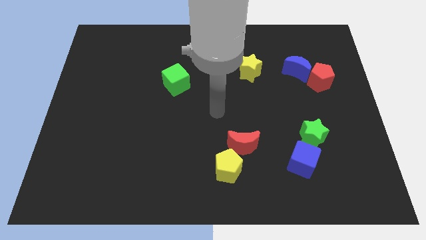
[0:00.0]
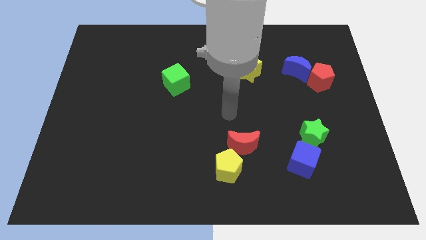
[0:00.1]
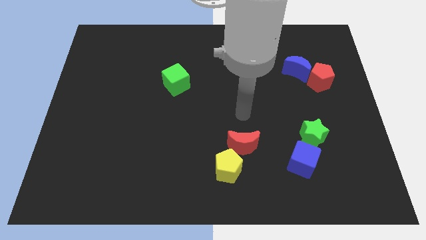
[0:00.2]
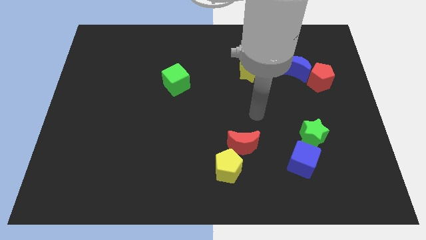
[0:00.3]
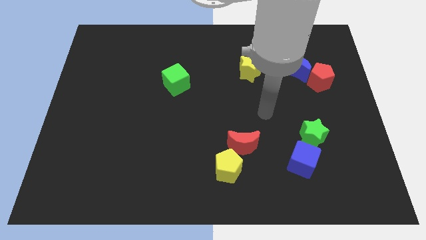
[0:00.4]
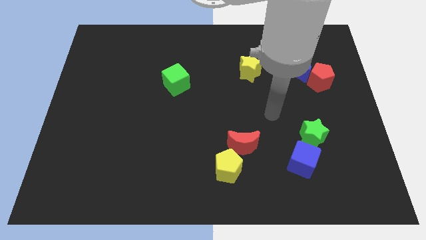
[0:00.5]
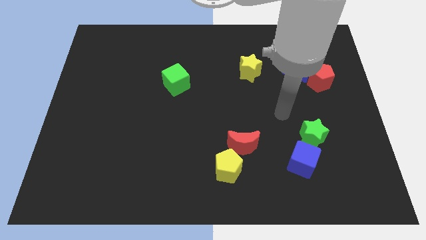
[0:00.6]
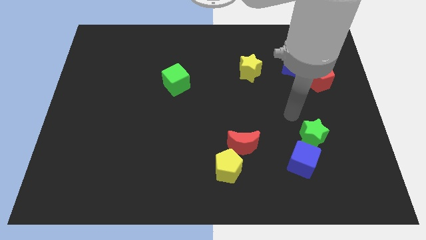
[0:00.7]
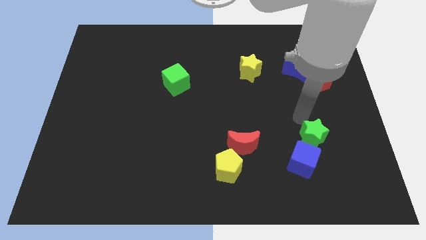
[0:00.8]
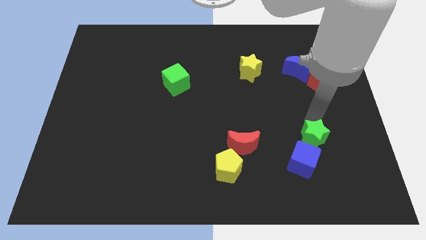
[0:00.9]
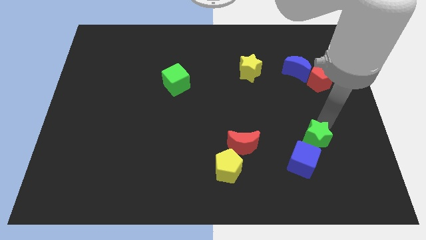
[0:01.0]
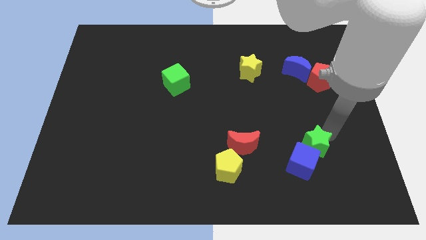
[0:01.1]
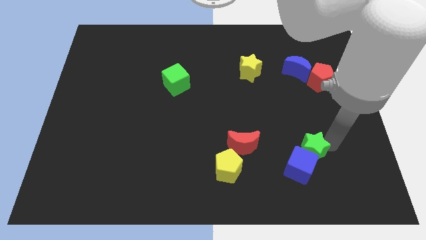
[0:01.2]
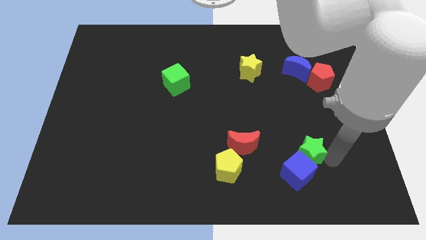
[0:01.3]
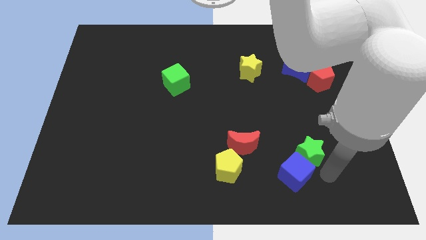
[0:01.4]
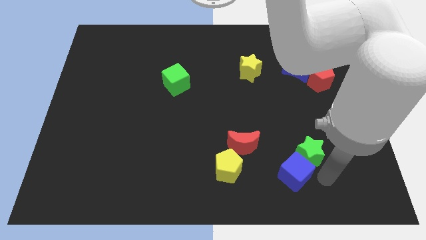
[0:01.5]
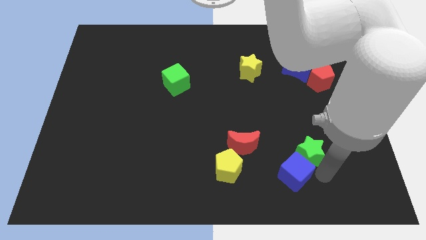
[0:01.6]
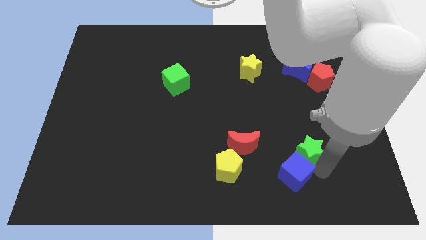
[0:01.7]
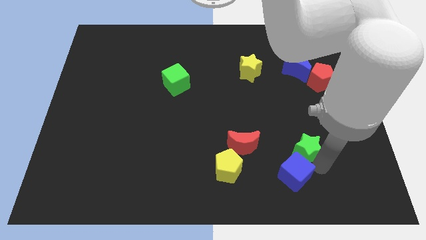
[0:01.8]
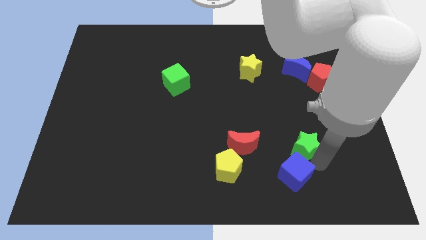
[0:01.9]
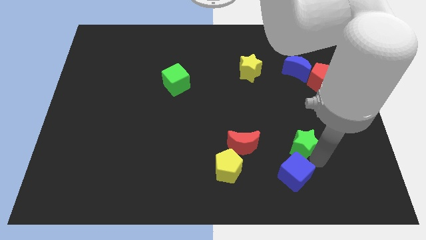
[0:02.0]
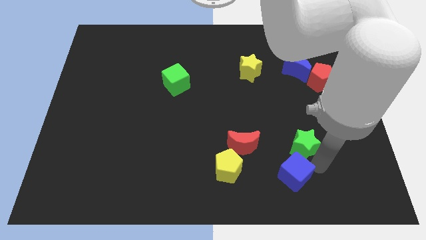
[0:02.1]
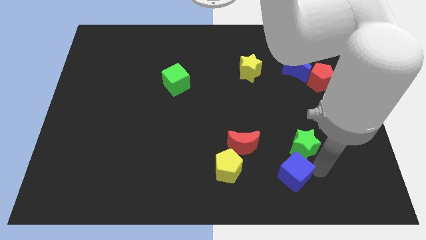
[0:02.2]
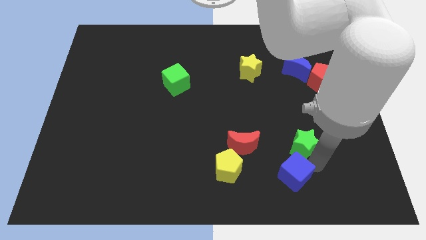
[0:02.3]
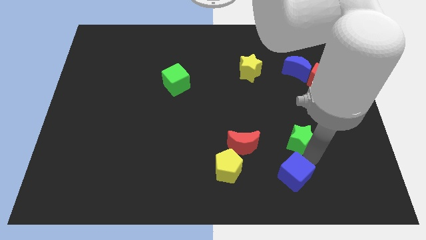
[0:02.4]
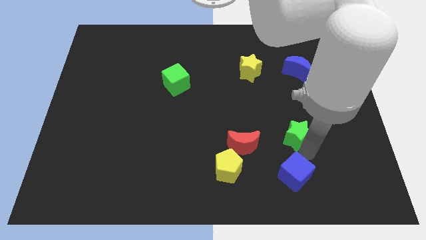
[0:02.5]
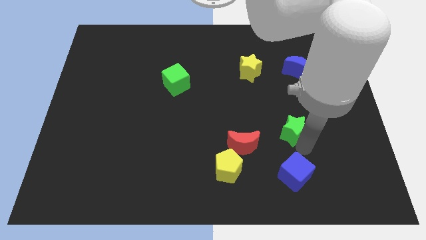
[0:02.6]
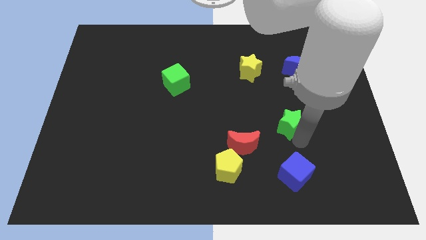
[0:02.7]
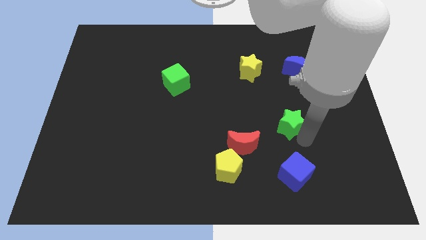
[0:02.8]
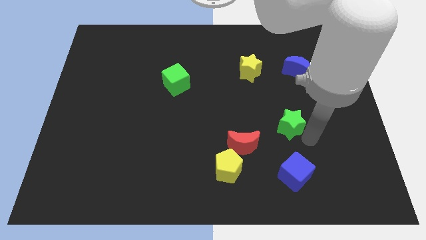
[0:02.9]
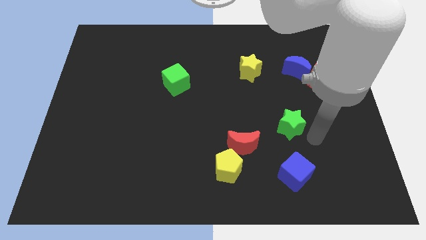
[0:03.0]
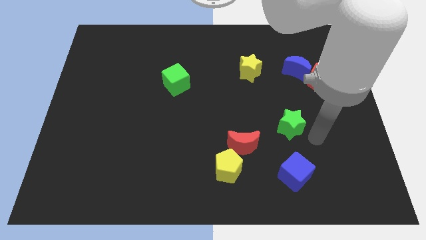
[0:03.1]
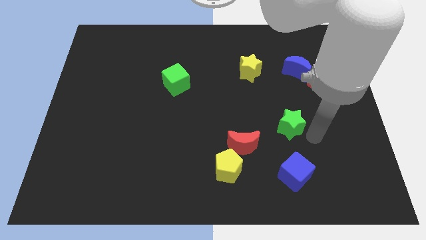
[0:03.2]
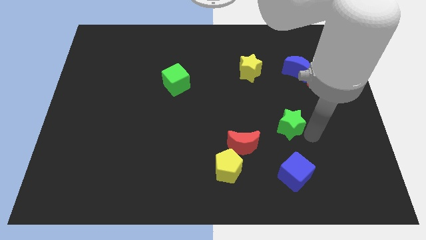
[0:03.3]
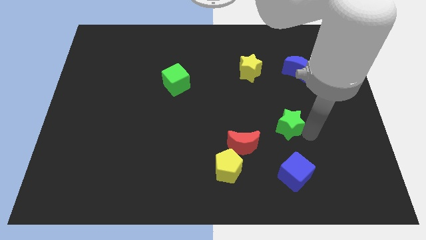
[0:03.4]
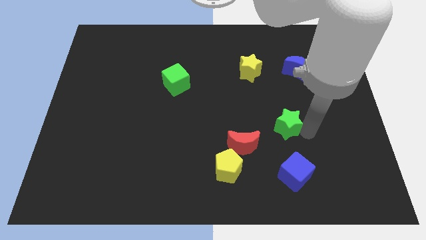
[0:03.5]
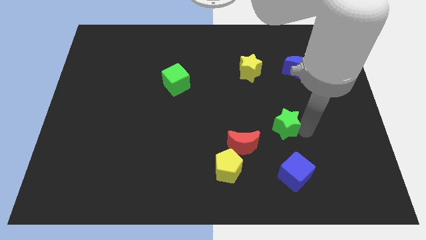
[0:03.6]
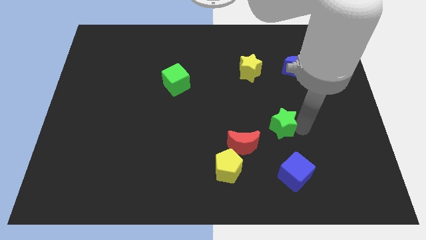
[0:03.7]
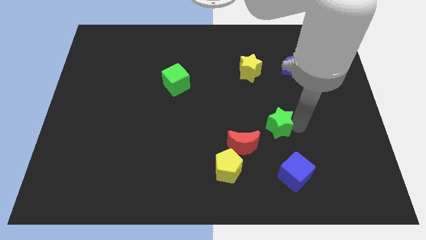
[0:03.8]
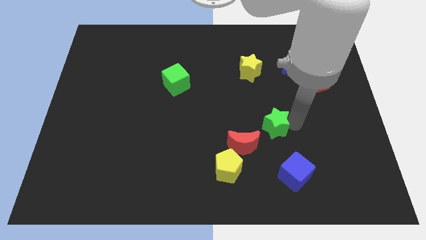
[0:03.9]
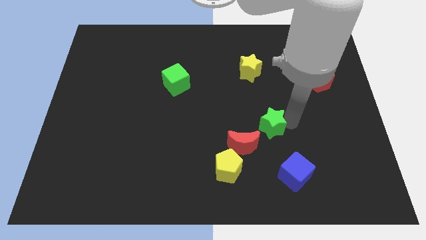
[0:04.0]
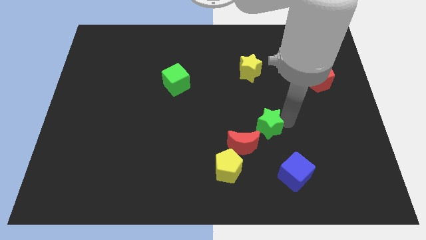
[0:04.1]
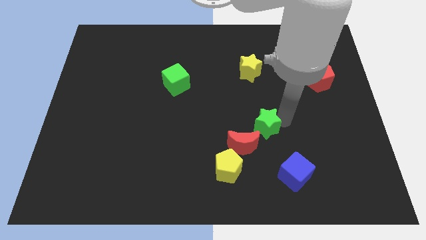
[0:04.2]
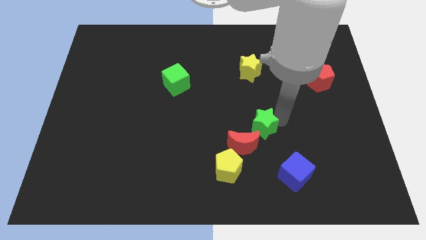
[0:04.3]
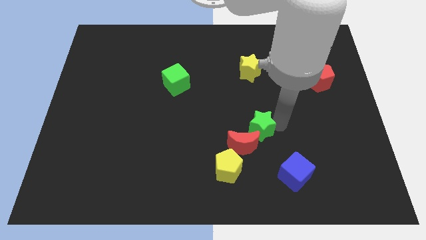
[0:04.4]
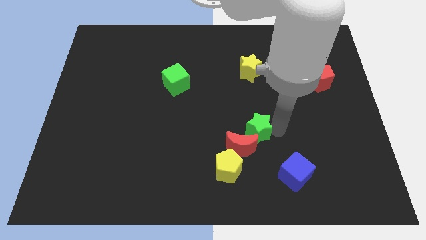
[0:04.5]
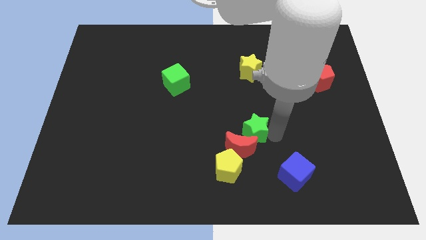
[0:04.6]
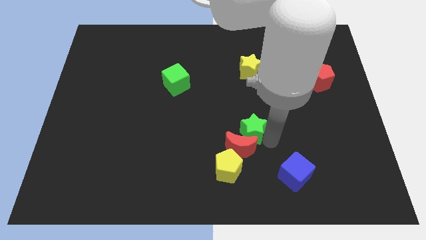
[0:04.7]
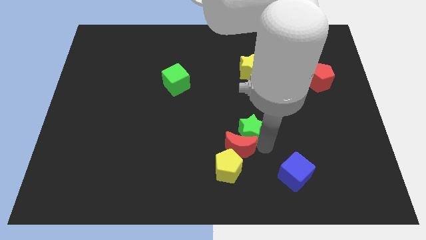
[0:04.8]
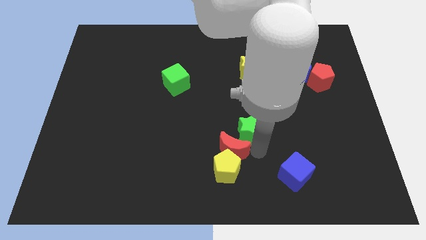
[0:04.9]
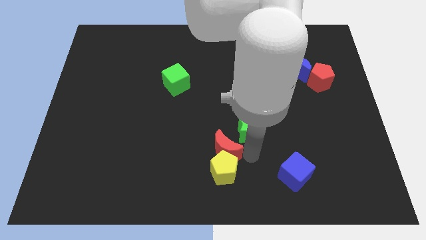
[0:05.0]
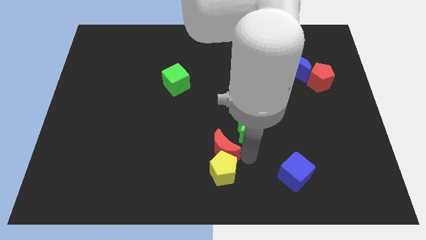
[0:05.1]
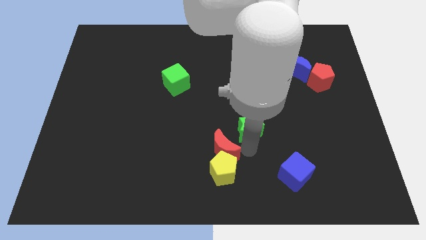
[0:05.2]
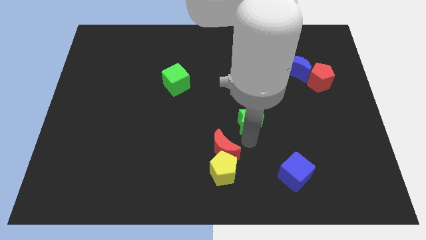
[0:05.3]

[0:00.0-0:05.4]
put the green star below the yellow star

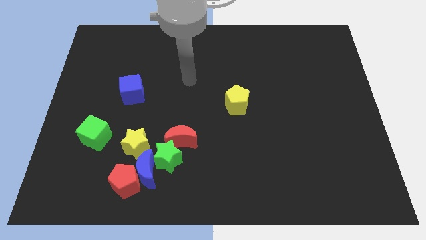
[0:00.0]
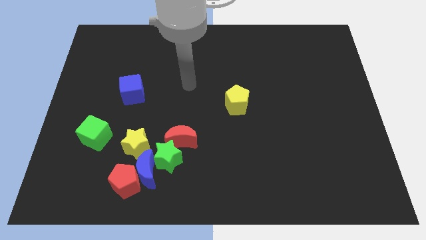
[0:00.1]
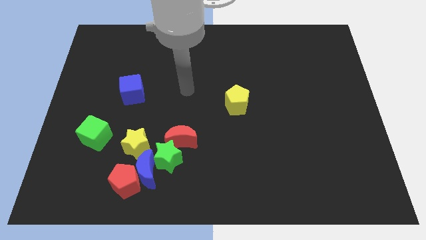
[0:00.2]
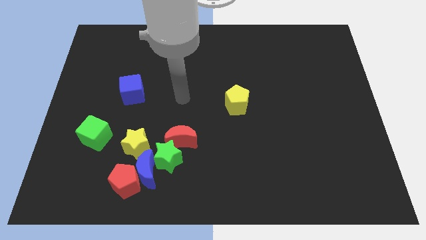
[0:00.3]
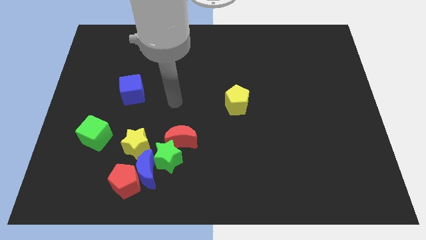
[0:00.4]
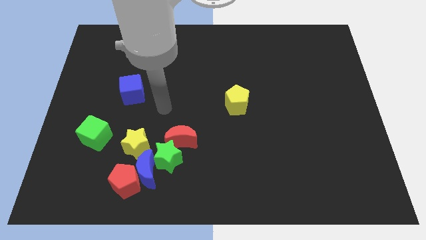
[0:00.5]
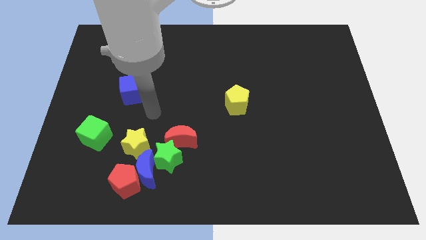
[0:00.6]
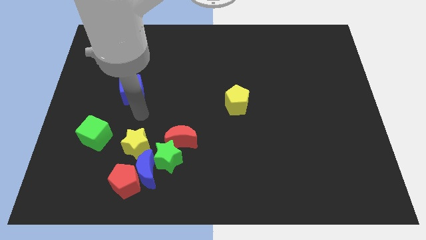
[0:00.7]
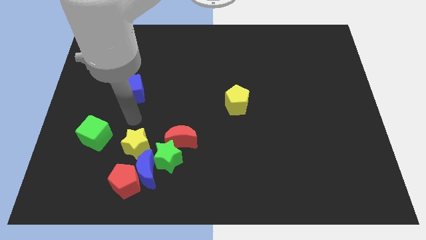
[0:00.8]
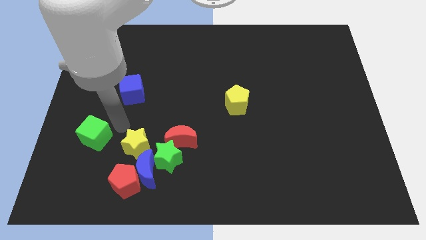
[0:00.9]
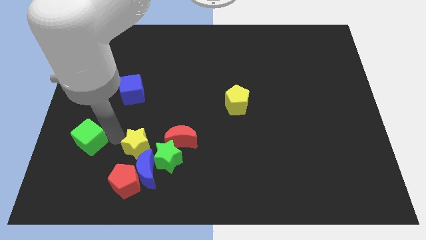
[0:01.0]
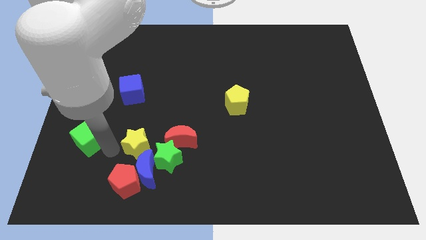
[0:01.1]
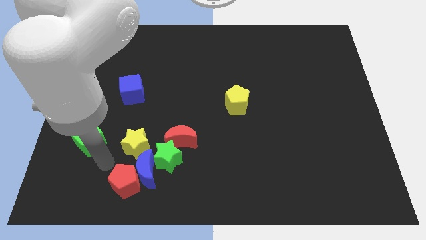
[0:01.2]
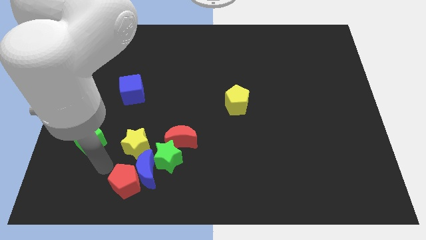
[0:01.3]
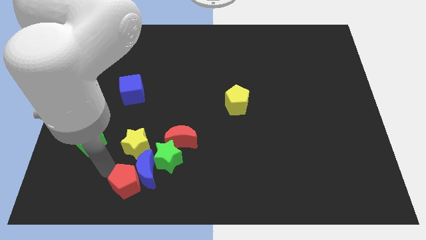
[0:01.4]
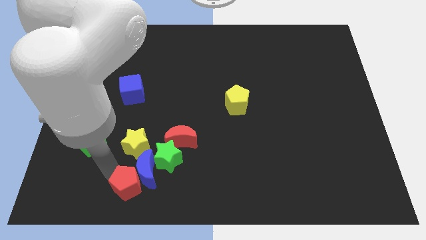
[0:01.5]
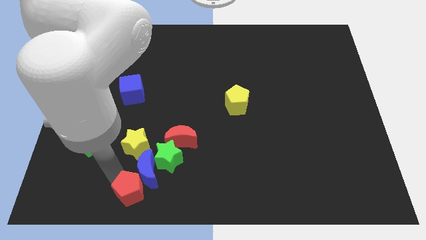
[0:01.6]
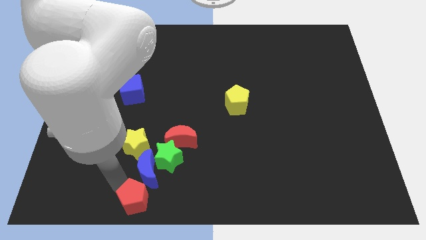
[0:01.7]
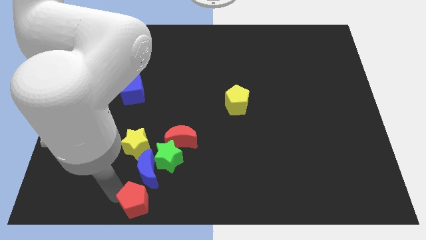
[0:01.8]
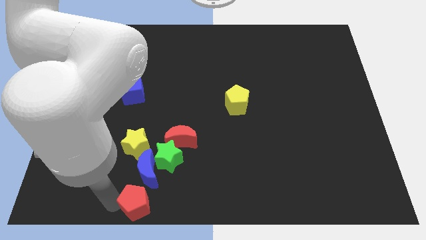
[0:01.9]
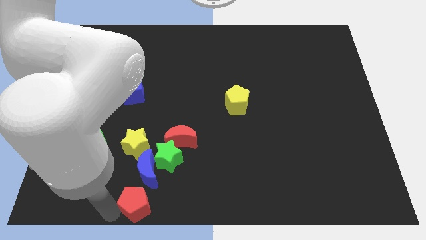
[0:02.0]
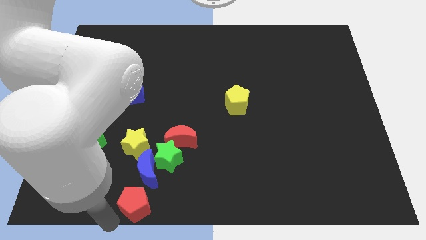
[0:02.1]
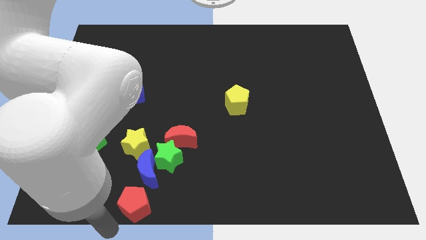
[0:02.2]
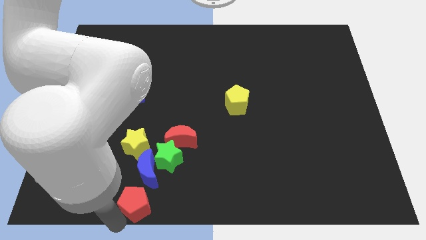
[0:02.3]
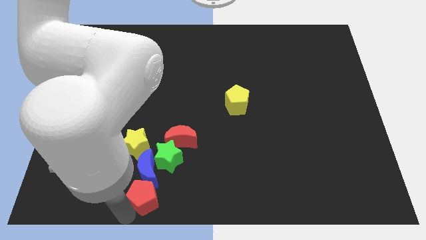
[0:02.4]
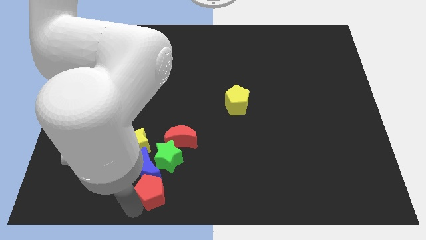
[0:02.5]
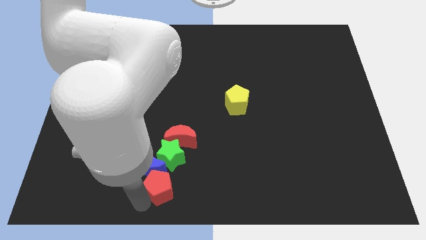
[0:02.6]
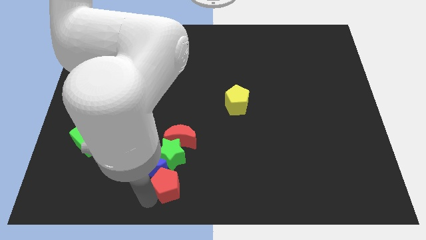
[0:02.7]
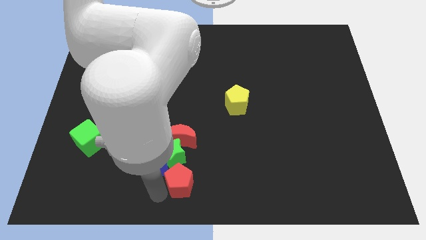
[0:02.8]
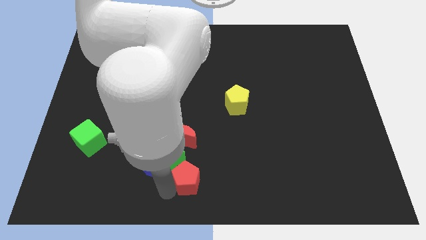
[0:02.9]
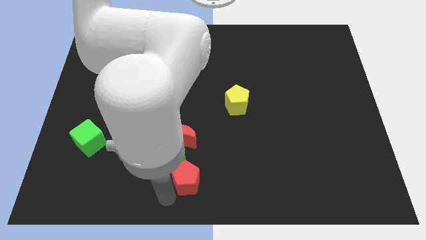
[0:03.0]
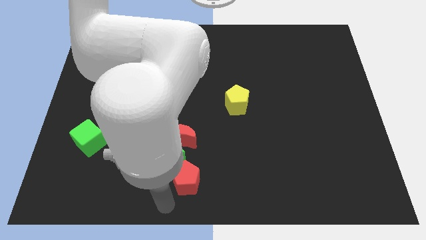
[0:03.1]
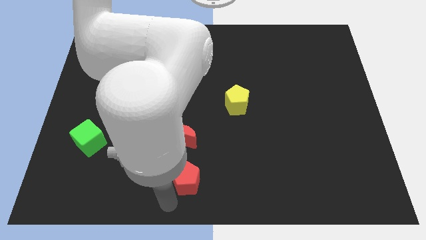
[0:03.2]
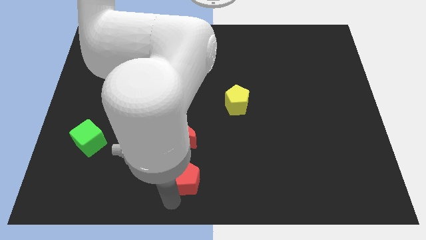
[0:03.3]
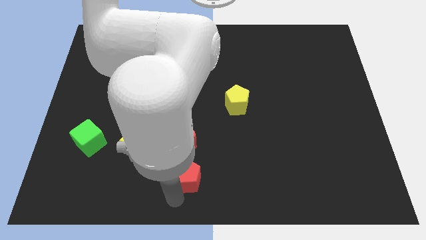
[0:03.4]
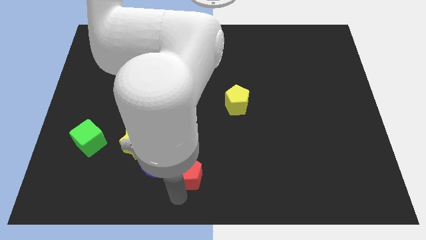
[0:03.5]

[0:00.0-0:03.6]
slide the red pentagon diagonally down and to the right of the red moon
